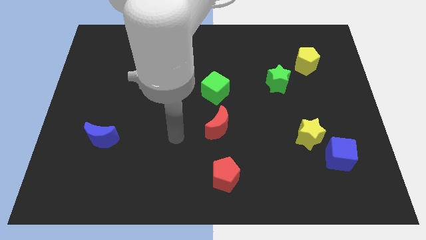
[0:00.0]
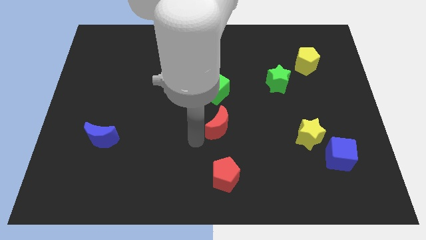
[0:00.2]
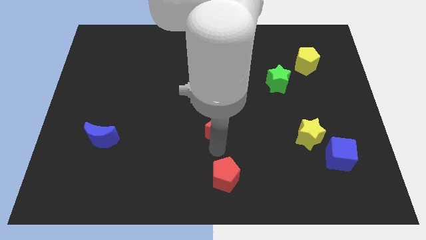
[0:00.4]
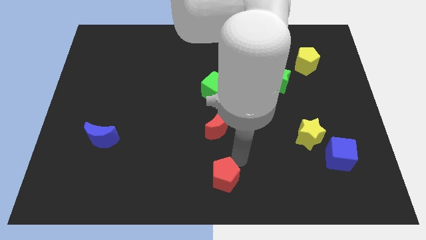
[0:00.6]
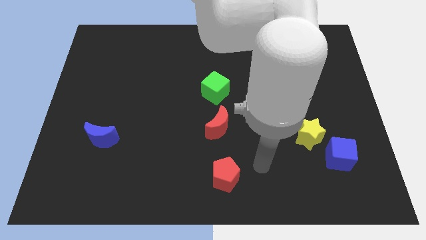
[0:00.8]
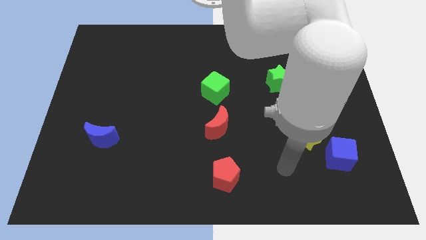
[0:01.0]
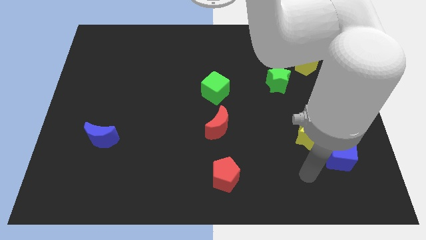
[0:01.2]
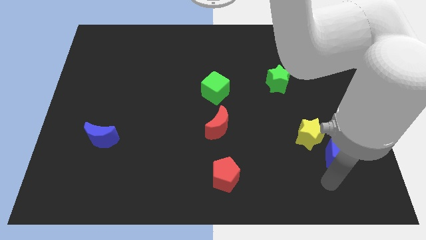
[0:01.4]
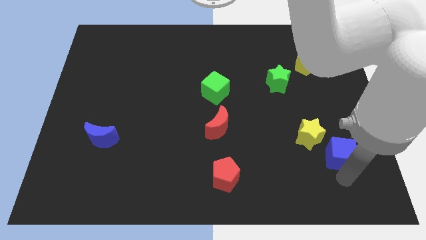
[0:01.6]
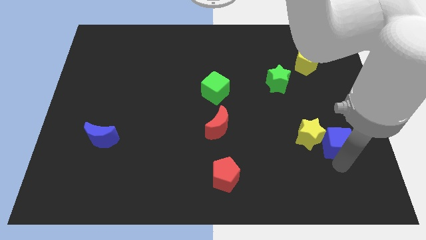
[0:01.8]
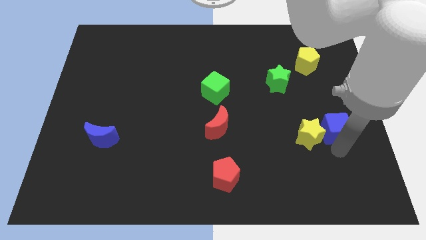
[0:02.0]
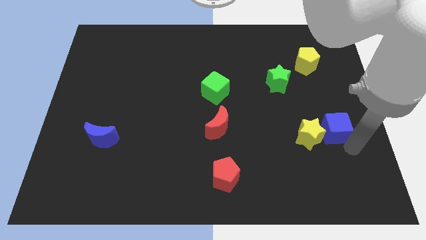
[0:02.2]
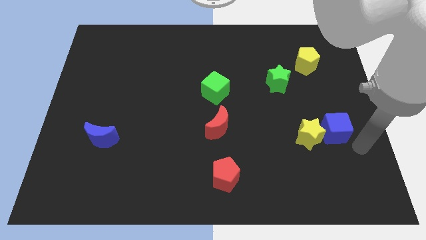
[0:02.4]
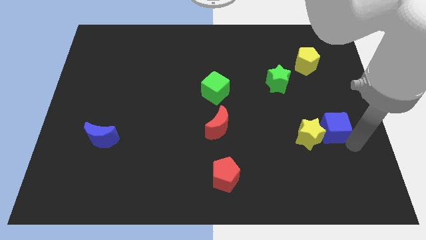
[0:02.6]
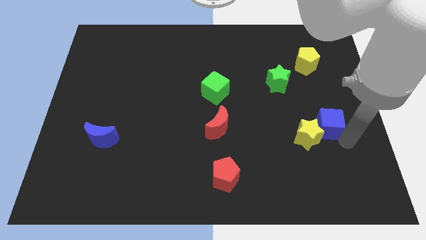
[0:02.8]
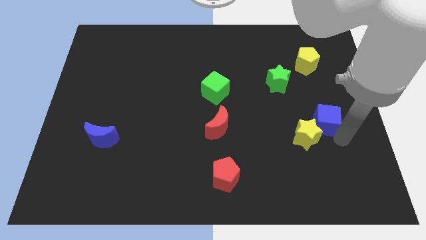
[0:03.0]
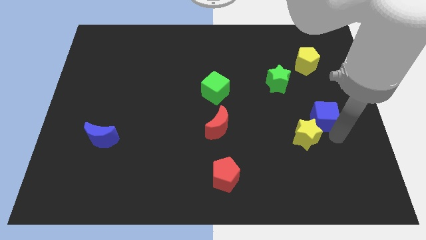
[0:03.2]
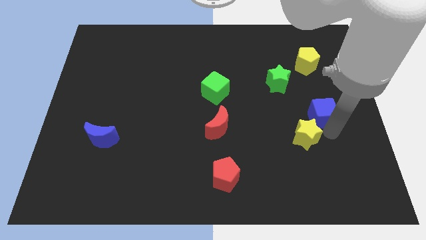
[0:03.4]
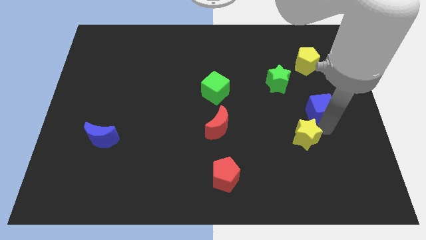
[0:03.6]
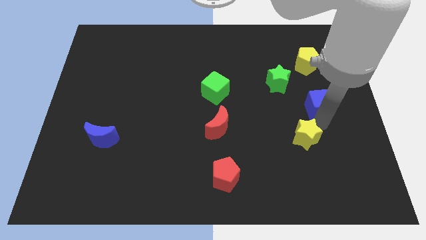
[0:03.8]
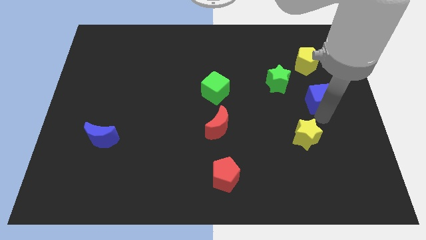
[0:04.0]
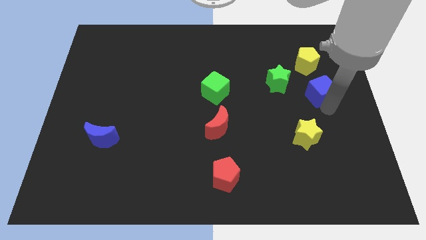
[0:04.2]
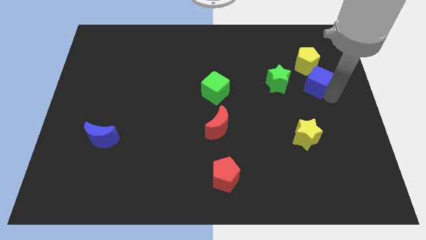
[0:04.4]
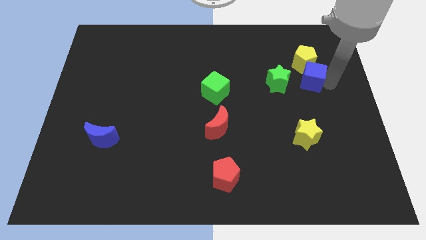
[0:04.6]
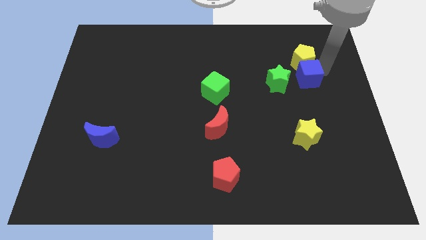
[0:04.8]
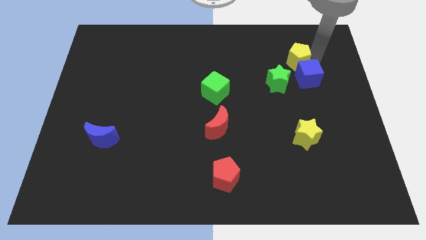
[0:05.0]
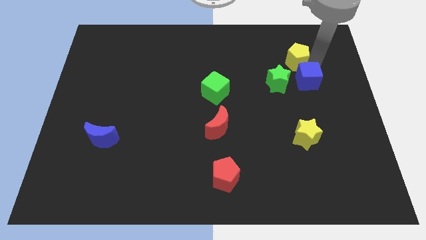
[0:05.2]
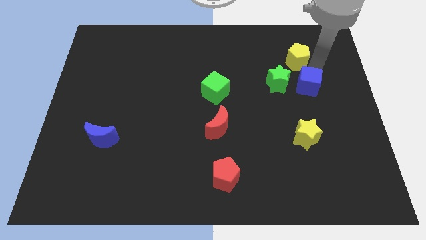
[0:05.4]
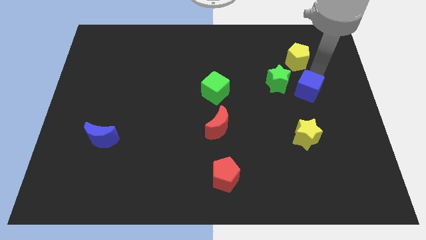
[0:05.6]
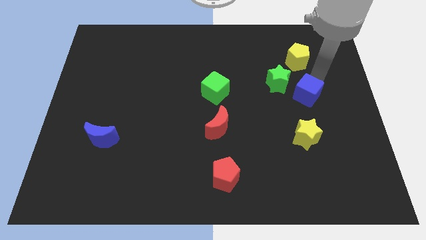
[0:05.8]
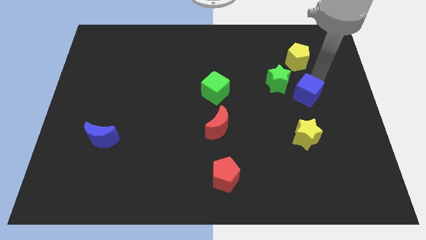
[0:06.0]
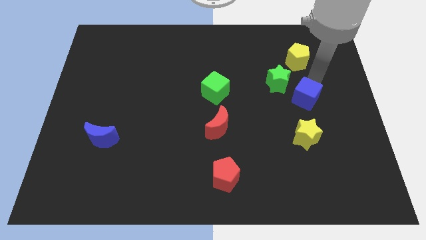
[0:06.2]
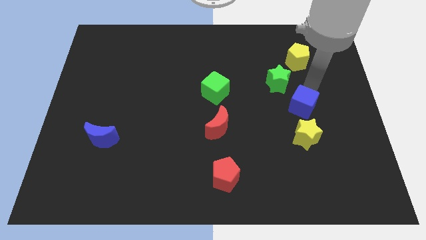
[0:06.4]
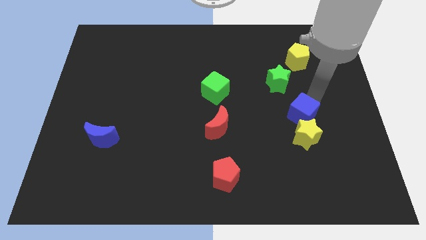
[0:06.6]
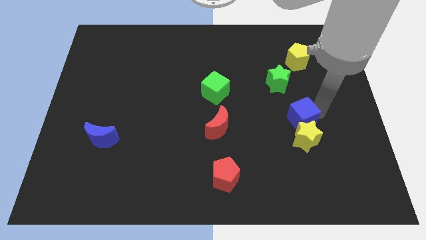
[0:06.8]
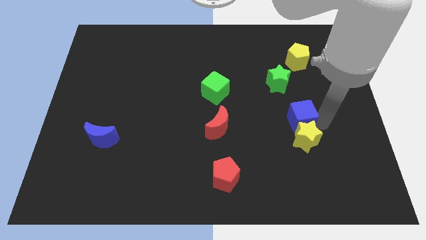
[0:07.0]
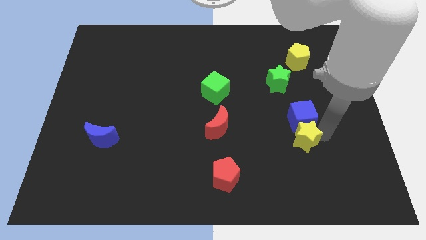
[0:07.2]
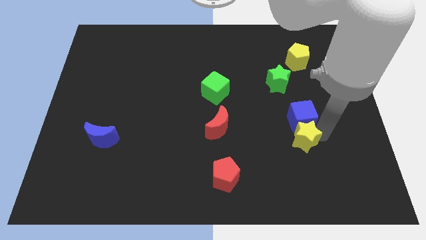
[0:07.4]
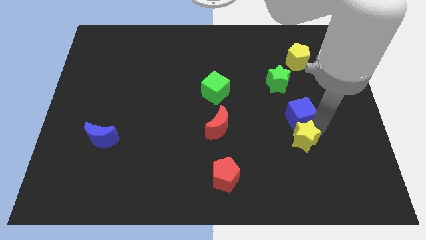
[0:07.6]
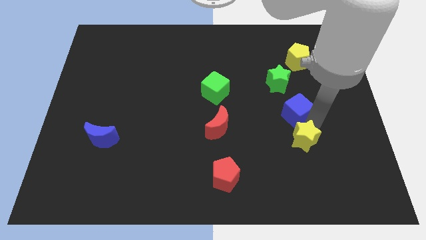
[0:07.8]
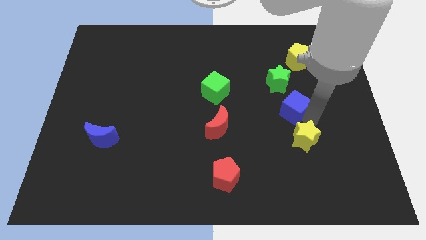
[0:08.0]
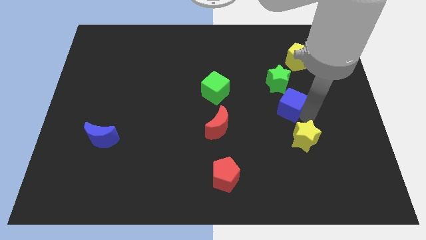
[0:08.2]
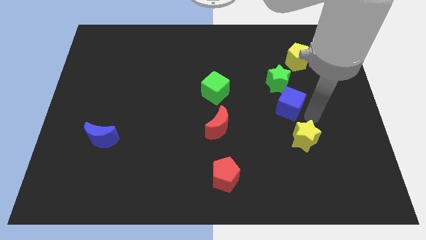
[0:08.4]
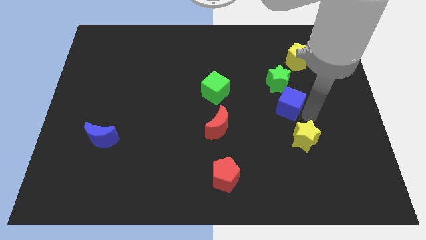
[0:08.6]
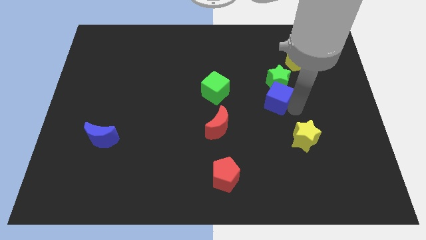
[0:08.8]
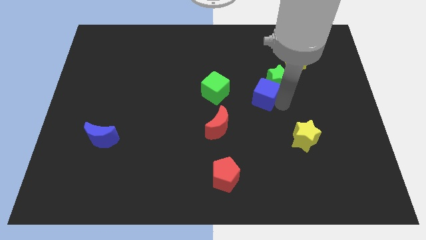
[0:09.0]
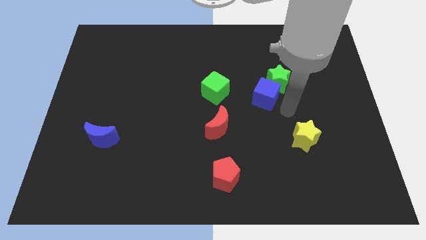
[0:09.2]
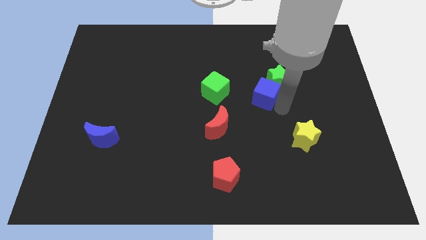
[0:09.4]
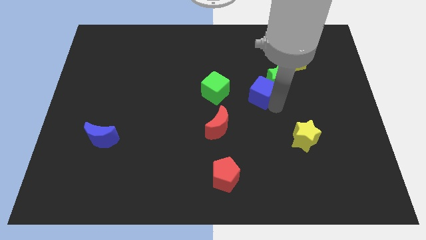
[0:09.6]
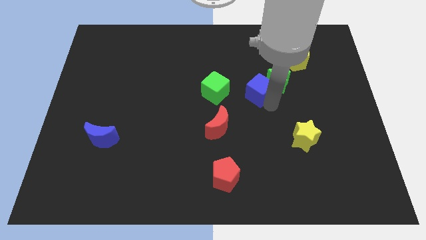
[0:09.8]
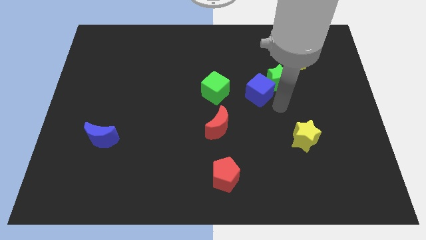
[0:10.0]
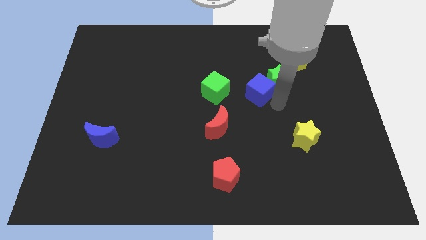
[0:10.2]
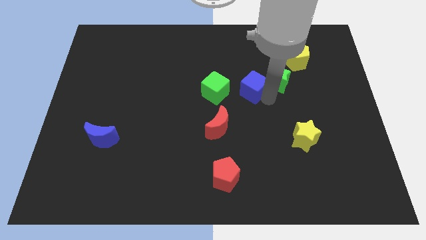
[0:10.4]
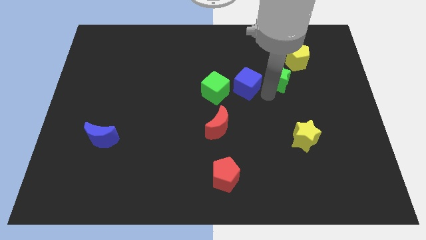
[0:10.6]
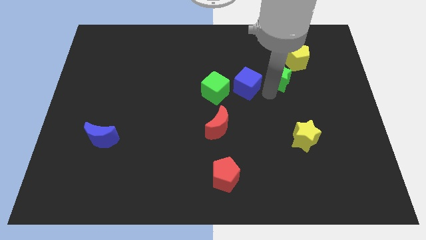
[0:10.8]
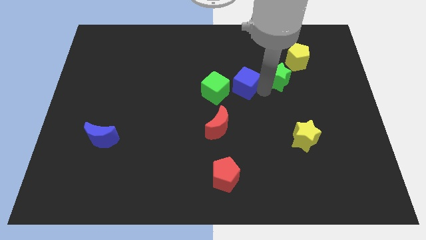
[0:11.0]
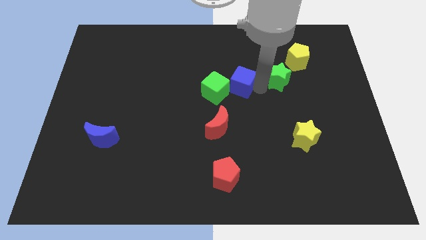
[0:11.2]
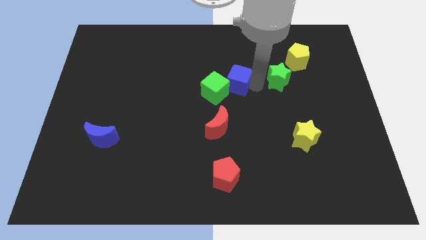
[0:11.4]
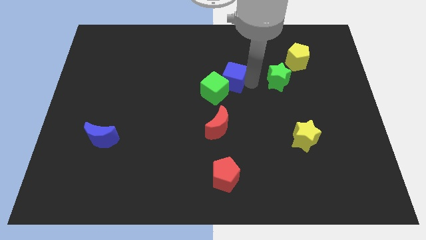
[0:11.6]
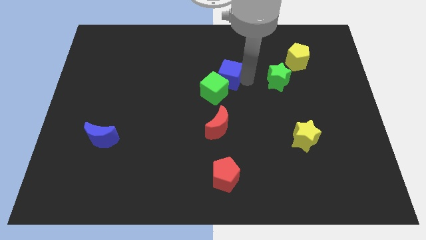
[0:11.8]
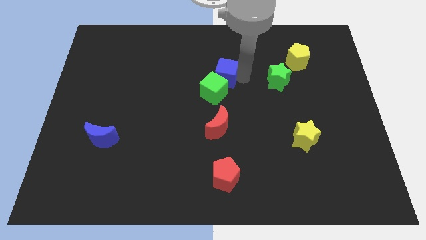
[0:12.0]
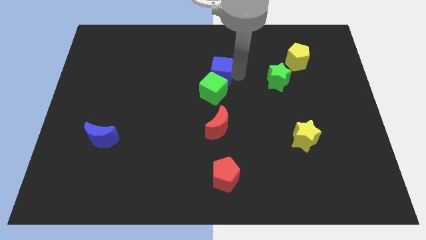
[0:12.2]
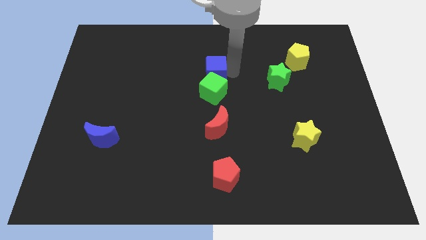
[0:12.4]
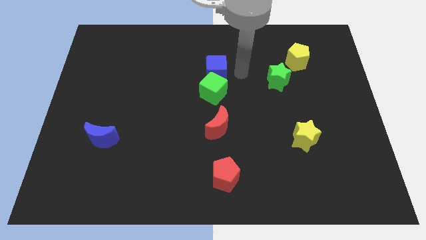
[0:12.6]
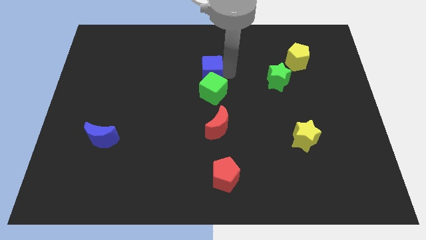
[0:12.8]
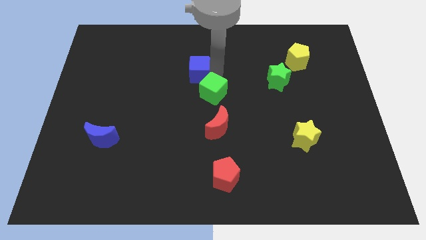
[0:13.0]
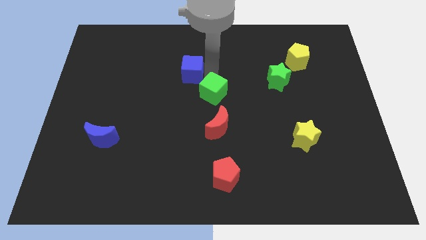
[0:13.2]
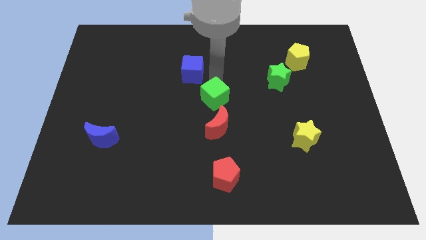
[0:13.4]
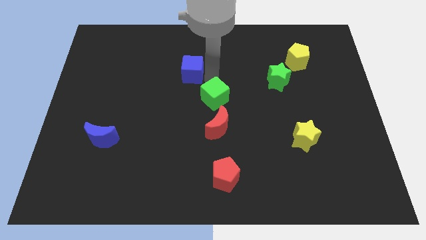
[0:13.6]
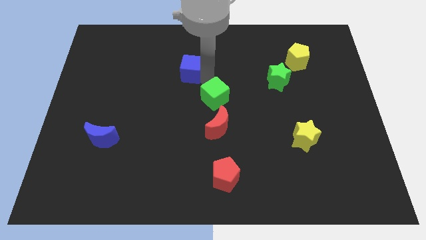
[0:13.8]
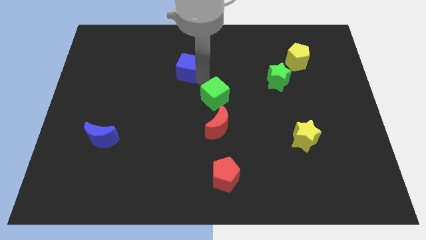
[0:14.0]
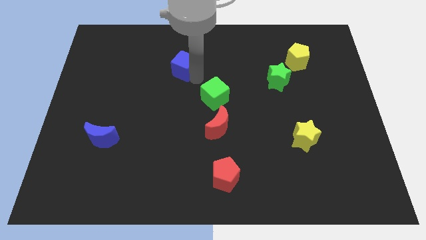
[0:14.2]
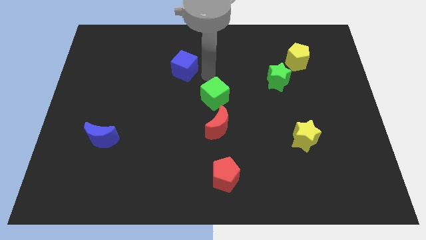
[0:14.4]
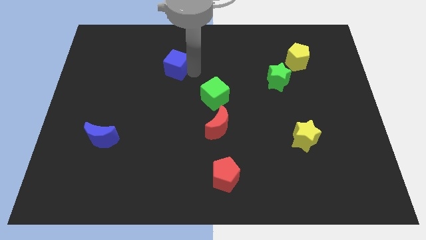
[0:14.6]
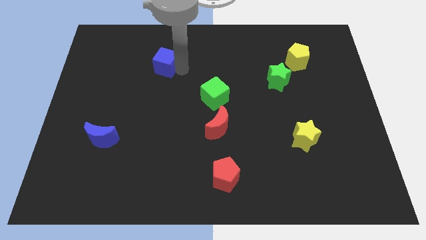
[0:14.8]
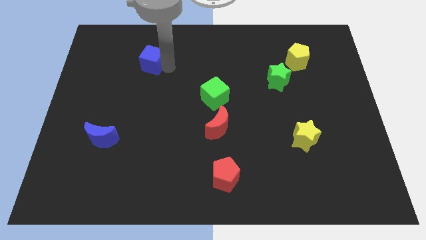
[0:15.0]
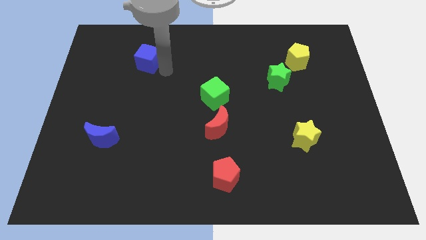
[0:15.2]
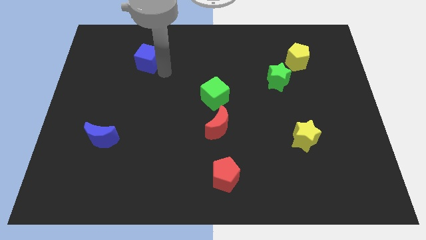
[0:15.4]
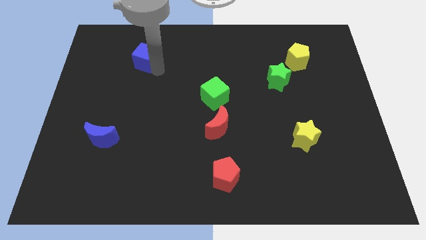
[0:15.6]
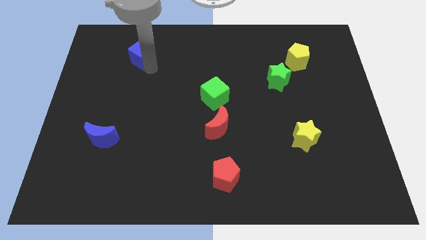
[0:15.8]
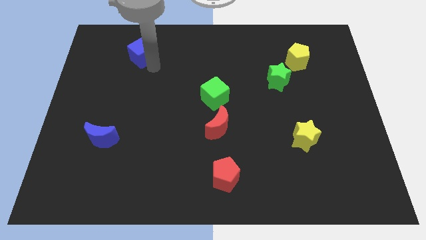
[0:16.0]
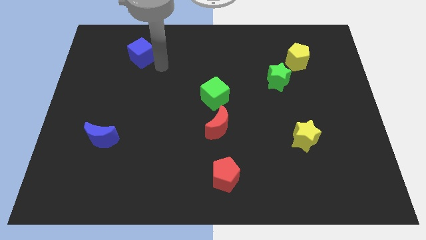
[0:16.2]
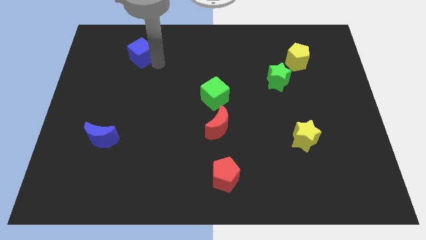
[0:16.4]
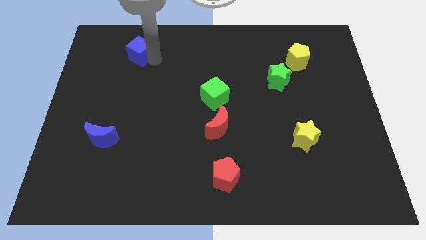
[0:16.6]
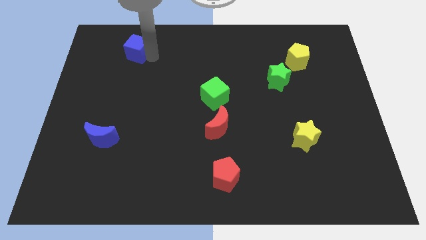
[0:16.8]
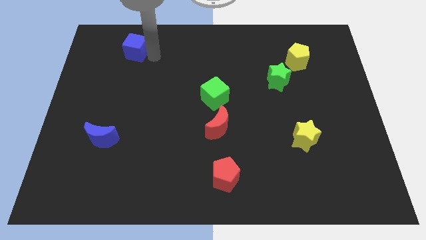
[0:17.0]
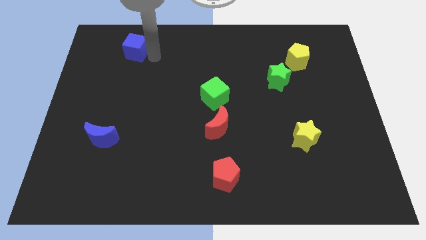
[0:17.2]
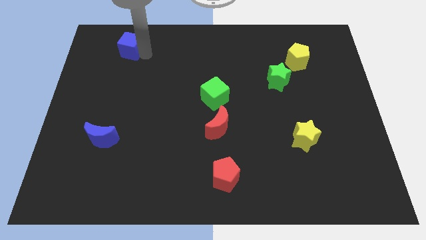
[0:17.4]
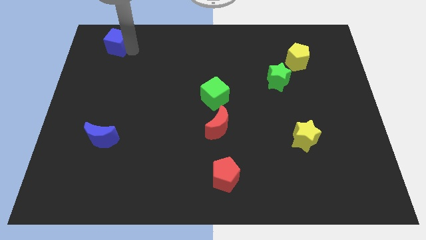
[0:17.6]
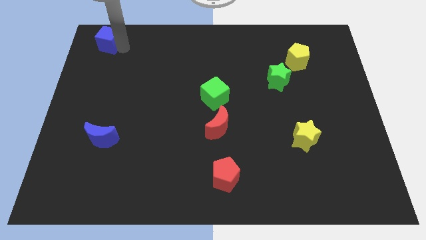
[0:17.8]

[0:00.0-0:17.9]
slide the blue cube to the top left of the board
